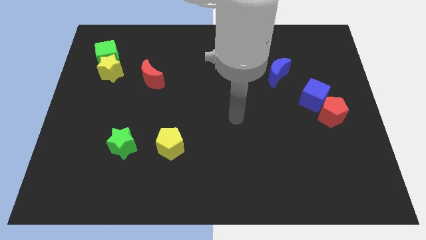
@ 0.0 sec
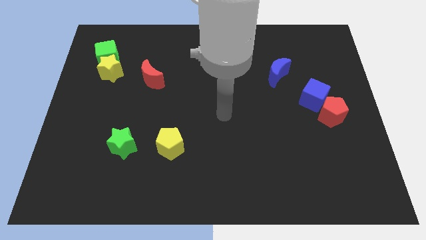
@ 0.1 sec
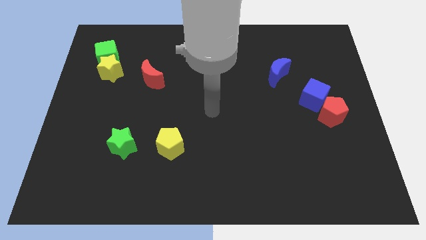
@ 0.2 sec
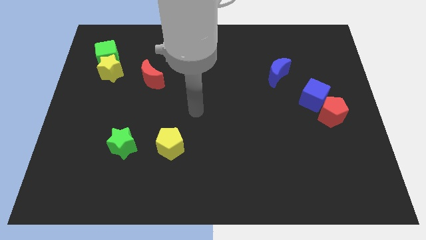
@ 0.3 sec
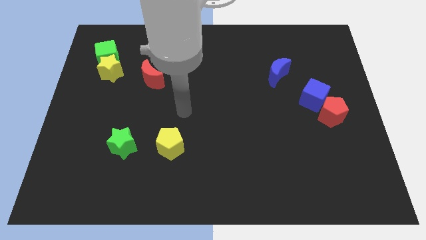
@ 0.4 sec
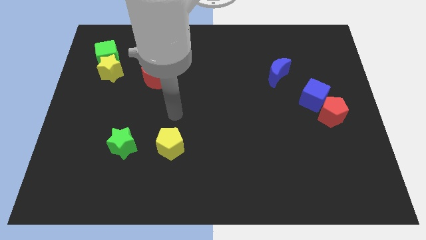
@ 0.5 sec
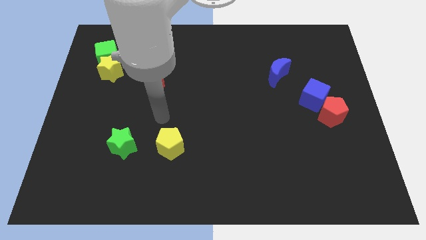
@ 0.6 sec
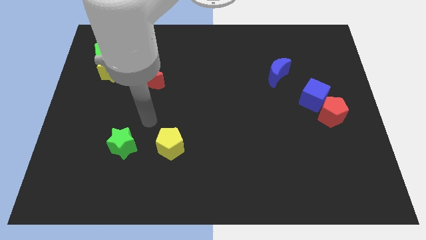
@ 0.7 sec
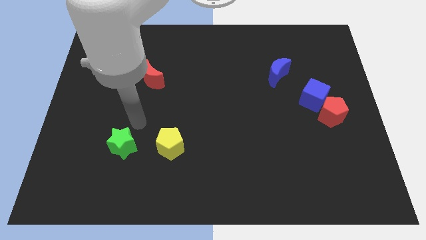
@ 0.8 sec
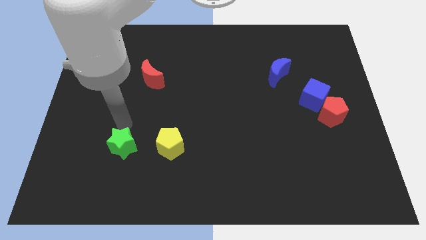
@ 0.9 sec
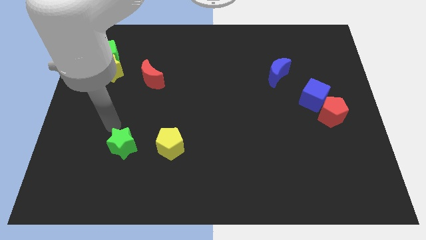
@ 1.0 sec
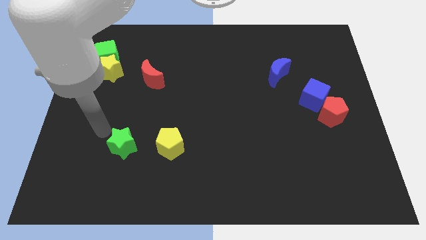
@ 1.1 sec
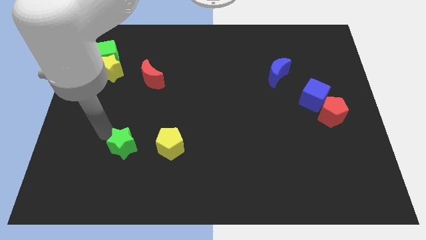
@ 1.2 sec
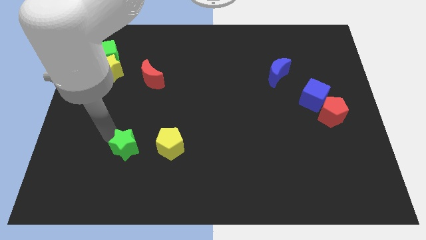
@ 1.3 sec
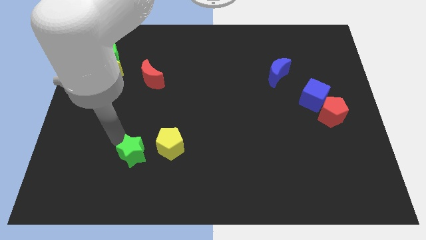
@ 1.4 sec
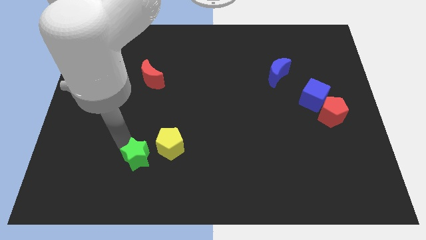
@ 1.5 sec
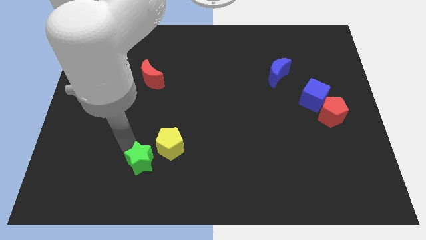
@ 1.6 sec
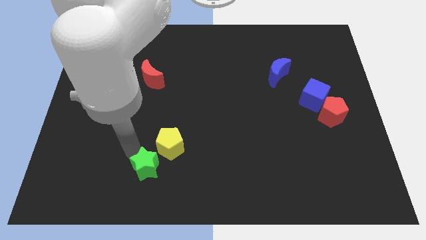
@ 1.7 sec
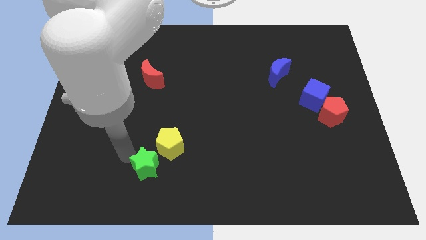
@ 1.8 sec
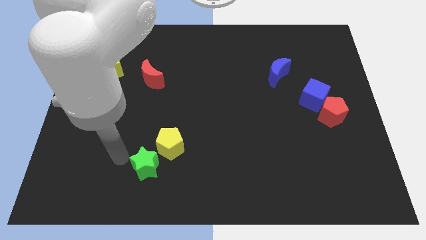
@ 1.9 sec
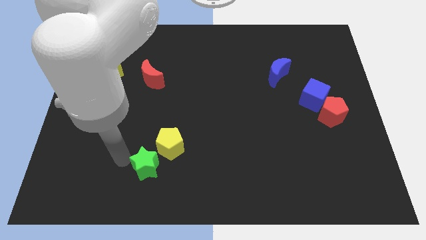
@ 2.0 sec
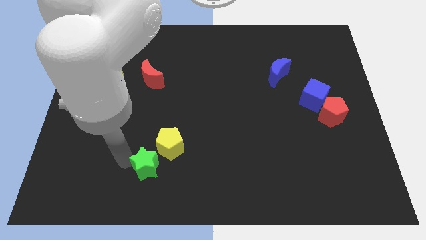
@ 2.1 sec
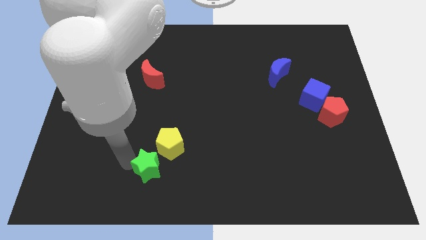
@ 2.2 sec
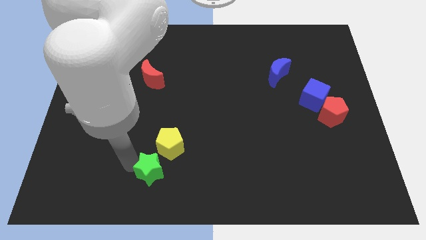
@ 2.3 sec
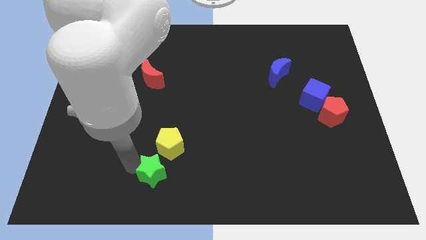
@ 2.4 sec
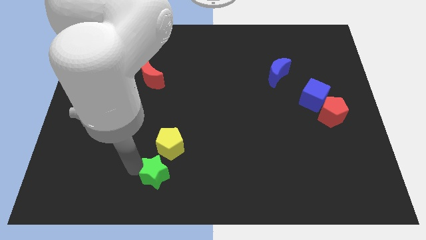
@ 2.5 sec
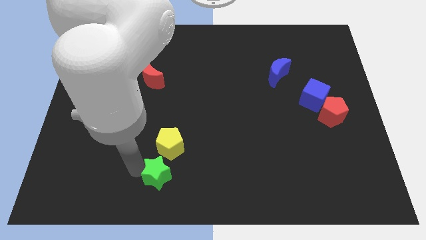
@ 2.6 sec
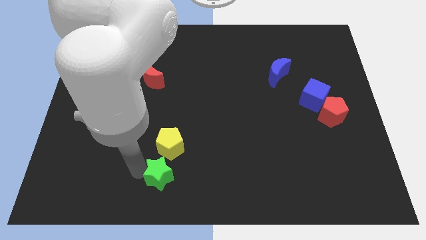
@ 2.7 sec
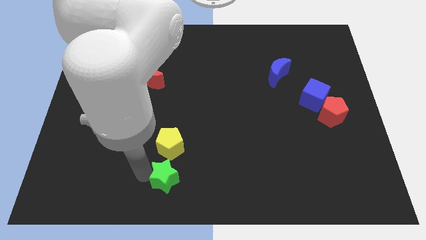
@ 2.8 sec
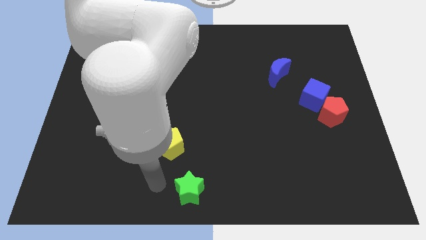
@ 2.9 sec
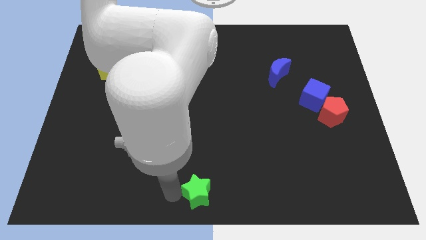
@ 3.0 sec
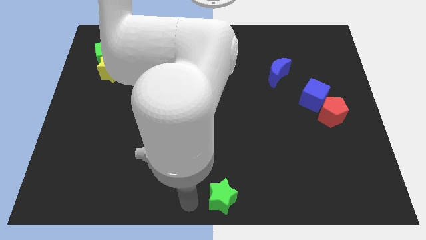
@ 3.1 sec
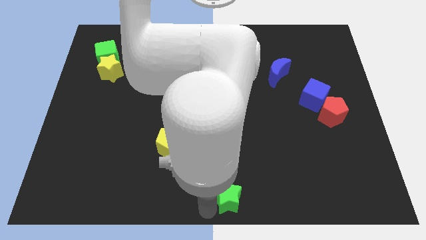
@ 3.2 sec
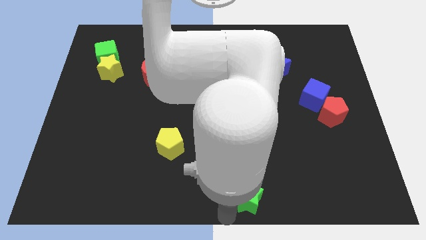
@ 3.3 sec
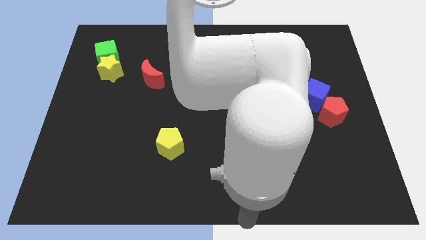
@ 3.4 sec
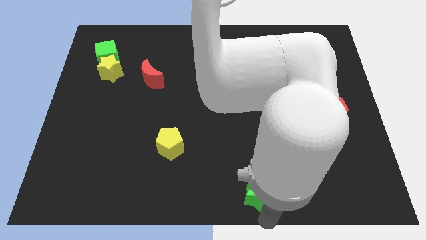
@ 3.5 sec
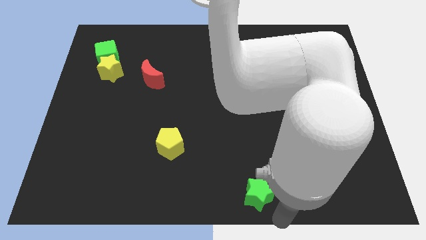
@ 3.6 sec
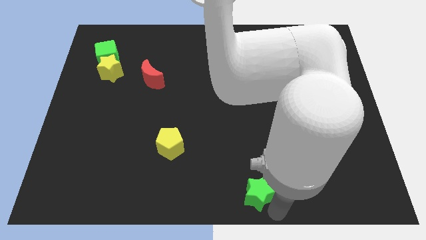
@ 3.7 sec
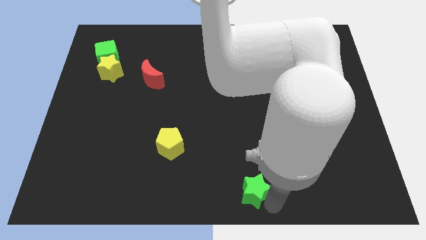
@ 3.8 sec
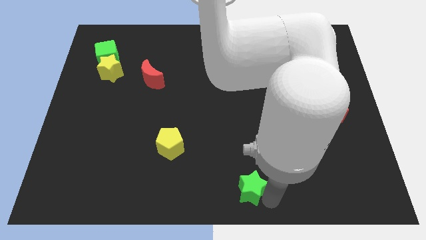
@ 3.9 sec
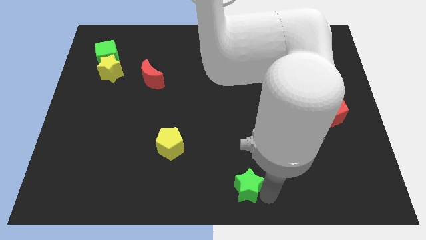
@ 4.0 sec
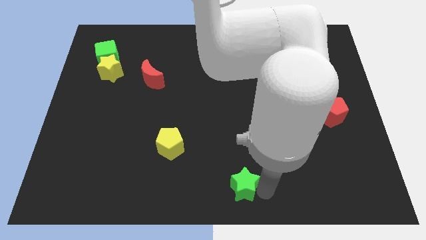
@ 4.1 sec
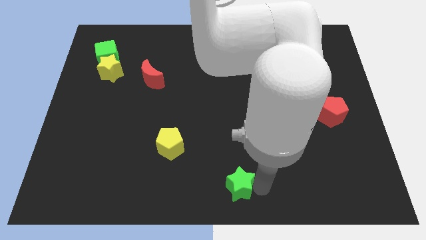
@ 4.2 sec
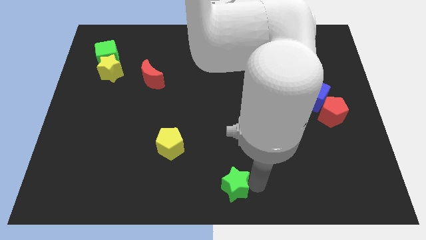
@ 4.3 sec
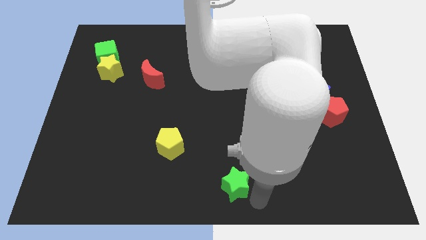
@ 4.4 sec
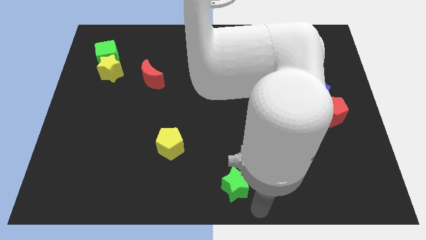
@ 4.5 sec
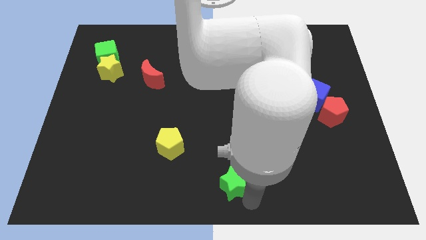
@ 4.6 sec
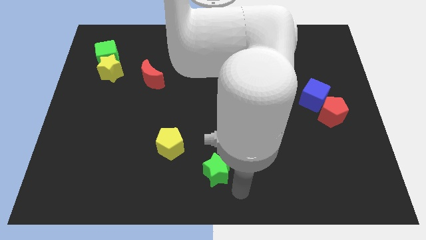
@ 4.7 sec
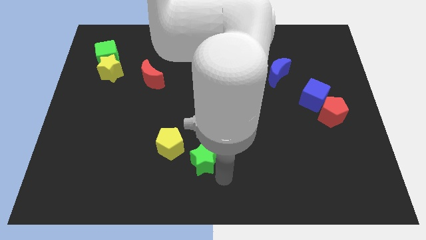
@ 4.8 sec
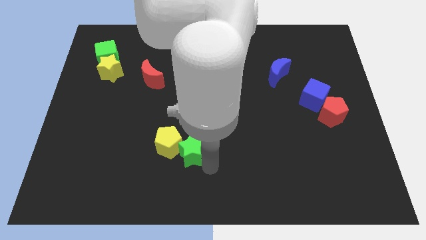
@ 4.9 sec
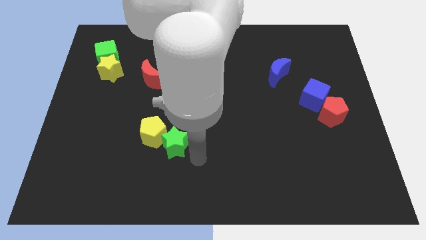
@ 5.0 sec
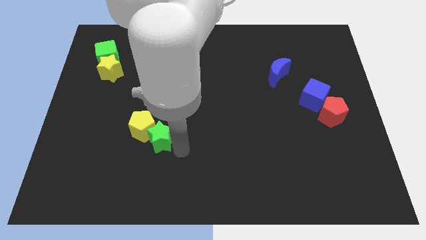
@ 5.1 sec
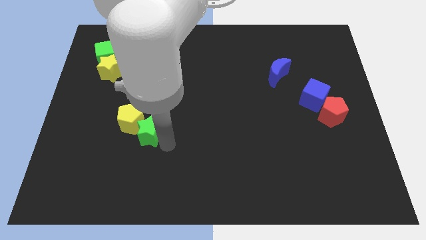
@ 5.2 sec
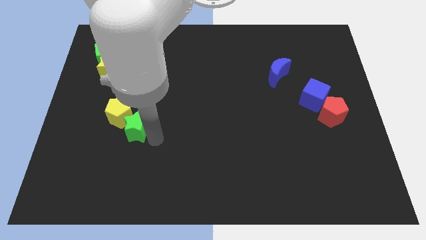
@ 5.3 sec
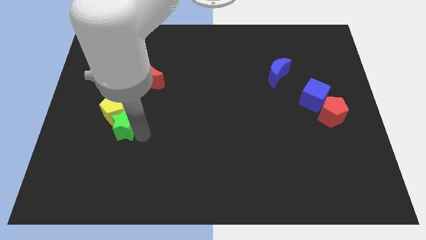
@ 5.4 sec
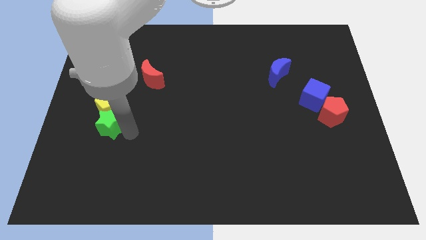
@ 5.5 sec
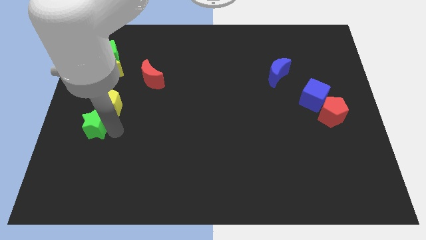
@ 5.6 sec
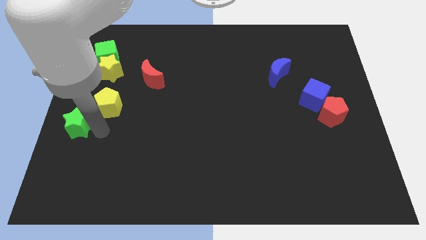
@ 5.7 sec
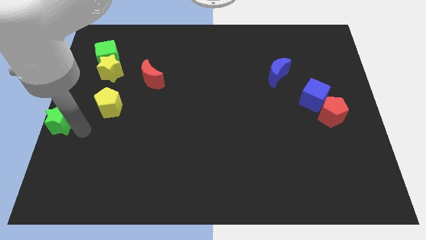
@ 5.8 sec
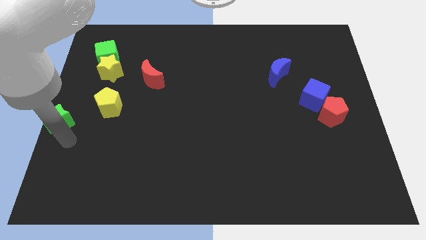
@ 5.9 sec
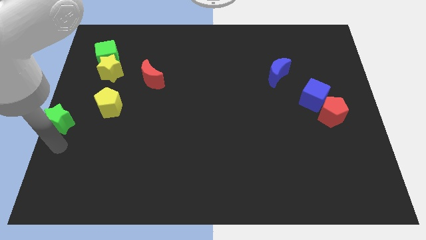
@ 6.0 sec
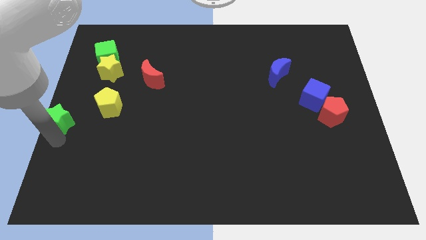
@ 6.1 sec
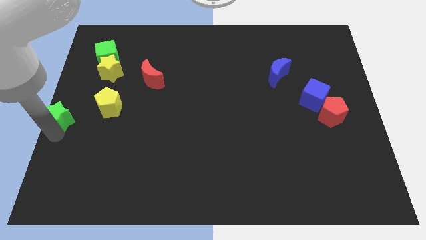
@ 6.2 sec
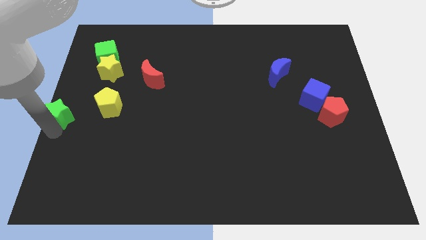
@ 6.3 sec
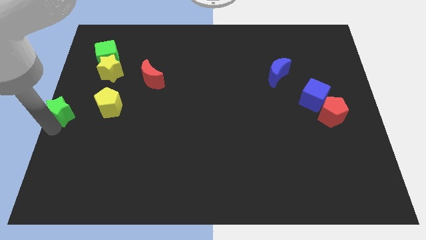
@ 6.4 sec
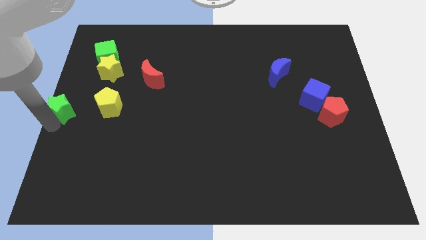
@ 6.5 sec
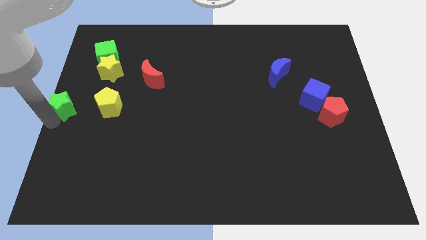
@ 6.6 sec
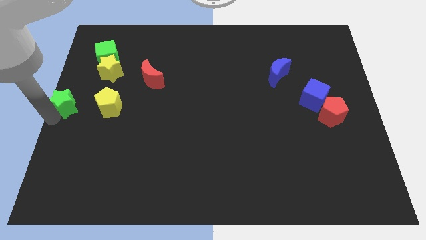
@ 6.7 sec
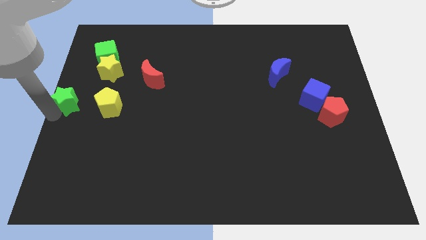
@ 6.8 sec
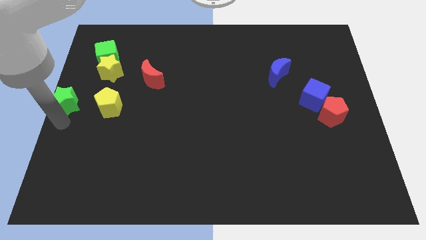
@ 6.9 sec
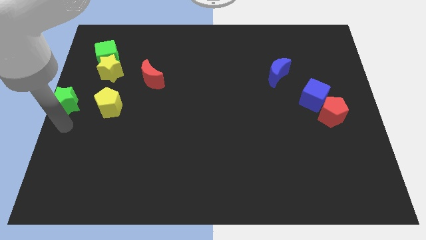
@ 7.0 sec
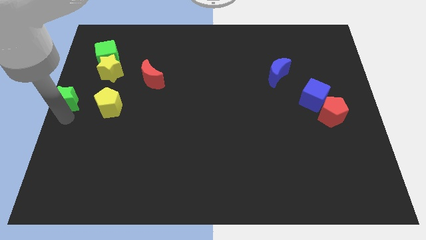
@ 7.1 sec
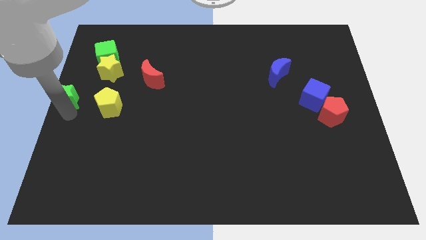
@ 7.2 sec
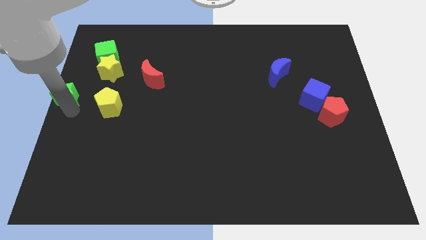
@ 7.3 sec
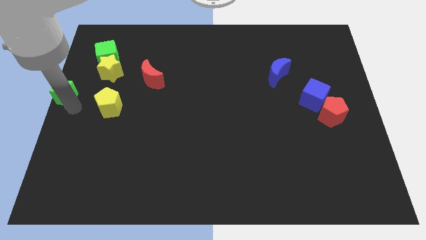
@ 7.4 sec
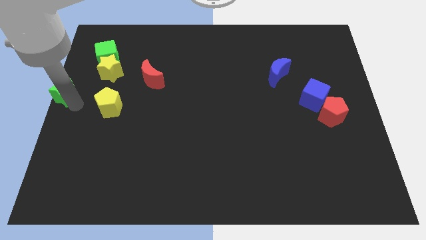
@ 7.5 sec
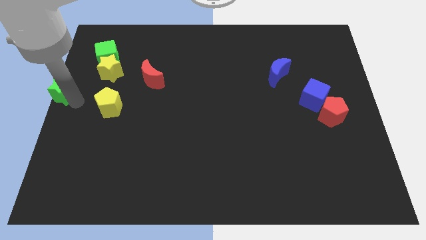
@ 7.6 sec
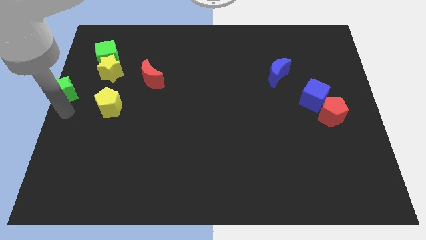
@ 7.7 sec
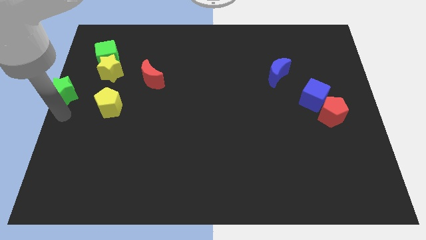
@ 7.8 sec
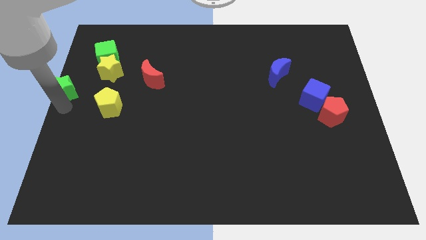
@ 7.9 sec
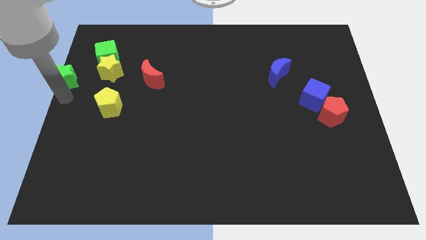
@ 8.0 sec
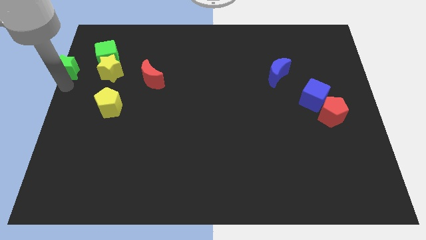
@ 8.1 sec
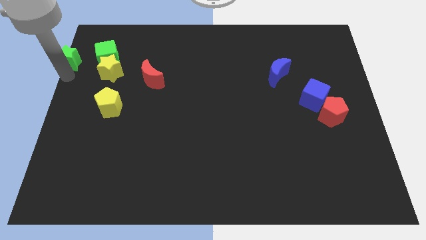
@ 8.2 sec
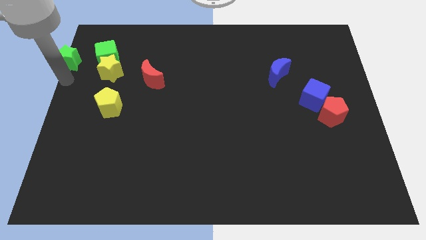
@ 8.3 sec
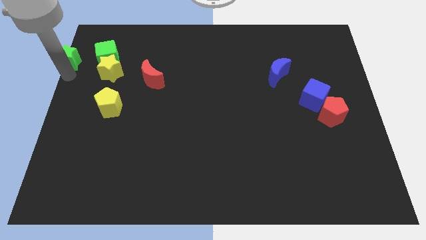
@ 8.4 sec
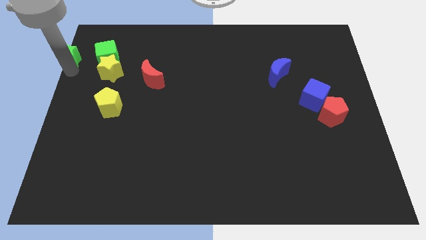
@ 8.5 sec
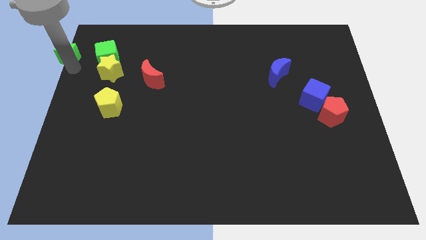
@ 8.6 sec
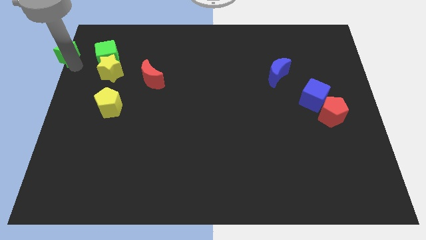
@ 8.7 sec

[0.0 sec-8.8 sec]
move the green star to the upper left corner
